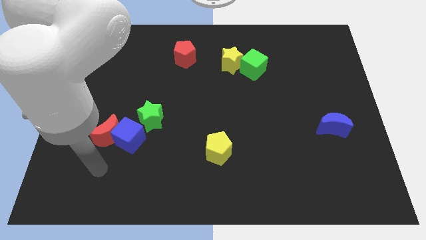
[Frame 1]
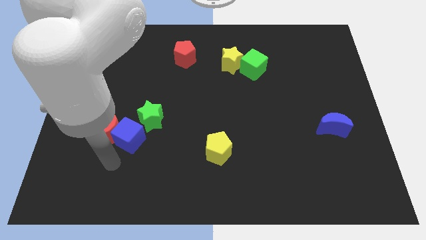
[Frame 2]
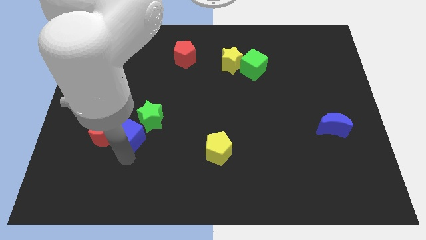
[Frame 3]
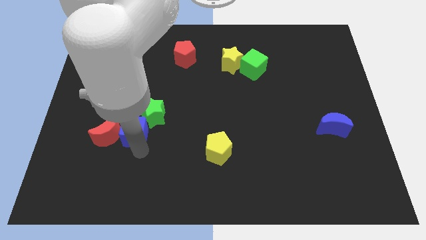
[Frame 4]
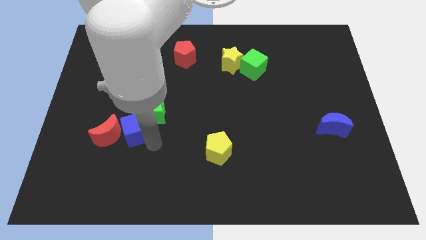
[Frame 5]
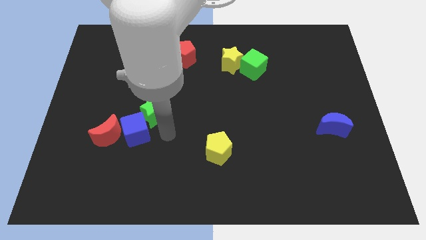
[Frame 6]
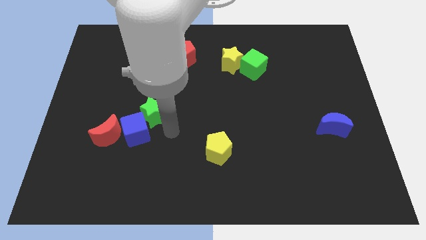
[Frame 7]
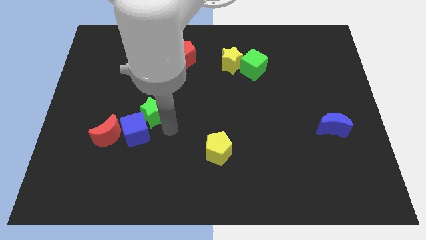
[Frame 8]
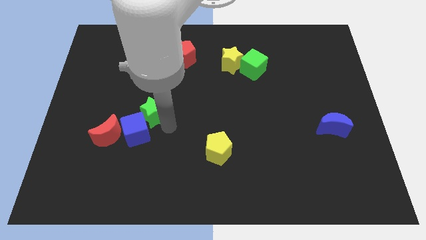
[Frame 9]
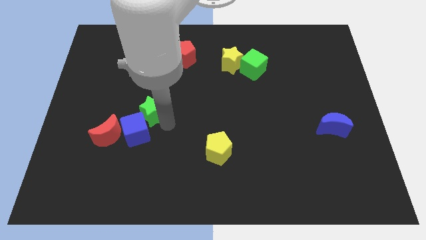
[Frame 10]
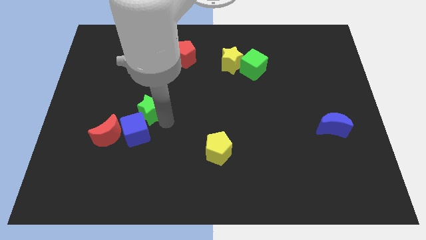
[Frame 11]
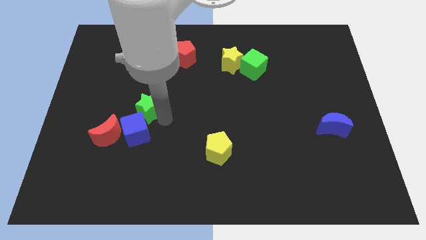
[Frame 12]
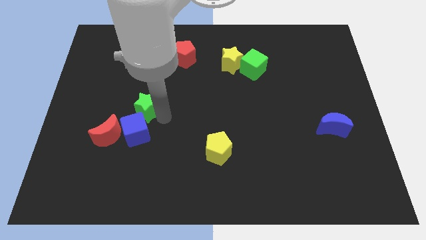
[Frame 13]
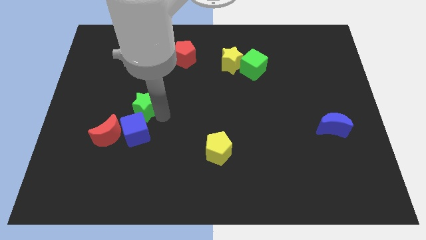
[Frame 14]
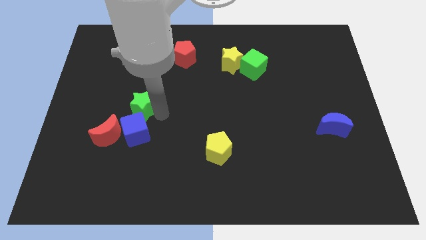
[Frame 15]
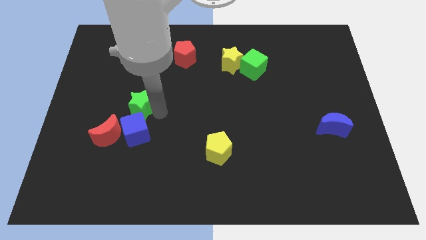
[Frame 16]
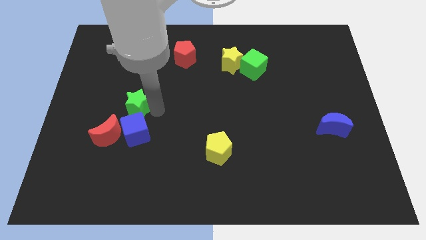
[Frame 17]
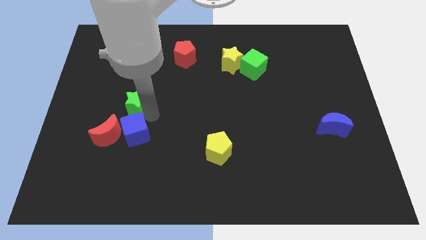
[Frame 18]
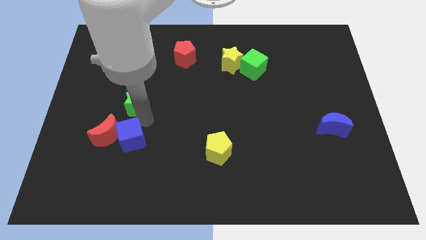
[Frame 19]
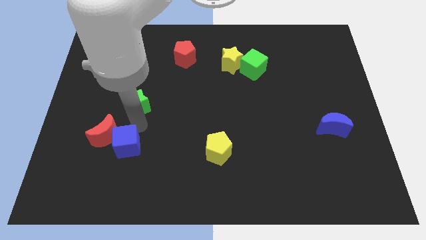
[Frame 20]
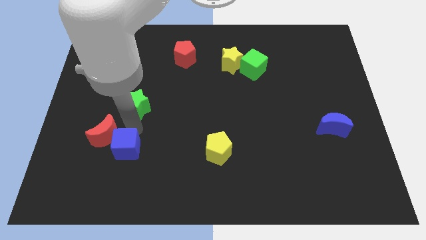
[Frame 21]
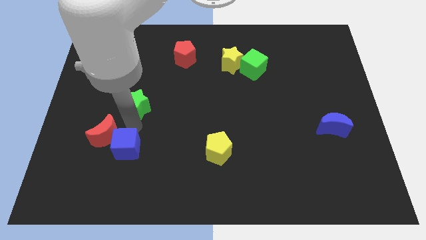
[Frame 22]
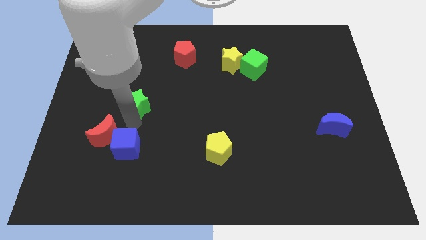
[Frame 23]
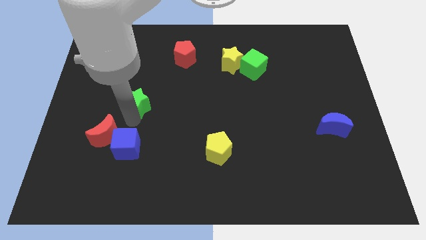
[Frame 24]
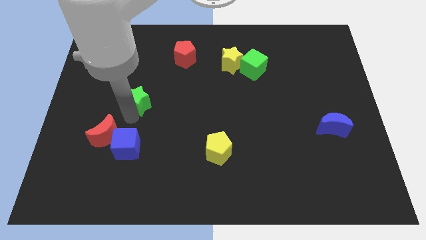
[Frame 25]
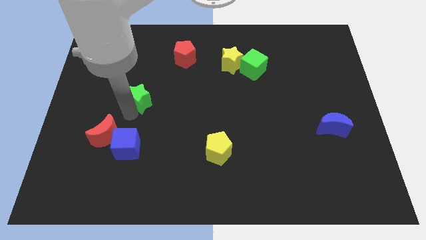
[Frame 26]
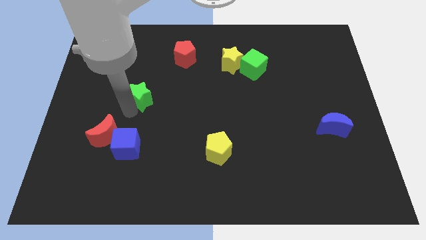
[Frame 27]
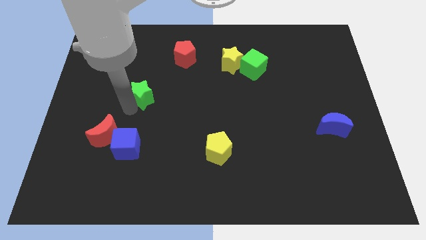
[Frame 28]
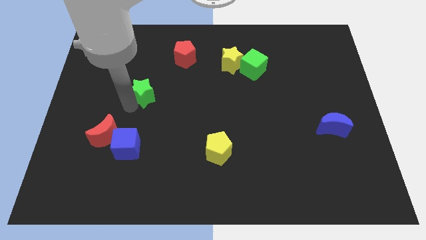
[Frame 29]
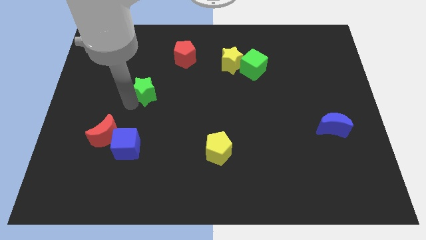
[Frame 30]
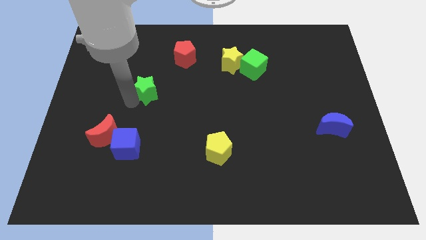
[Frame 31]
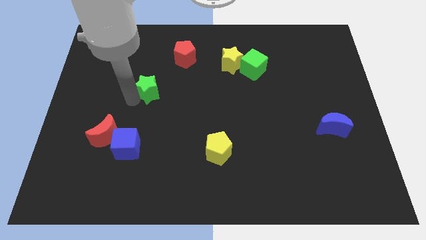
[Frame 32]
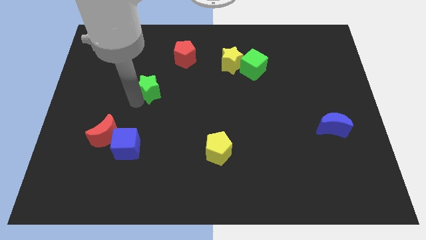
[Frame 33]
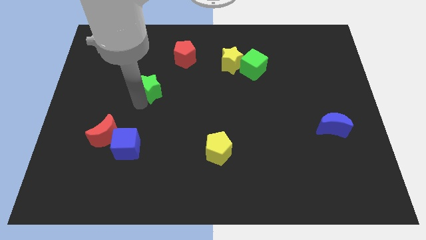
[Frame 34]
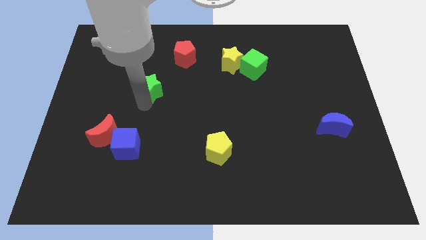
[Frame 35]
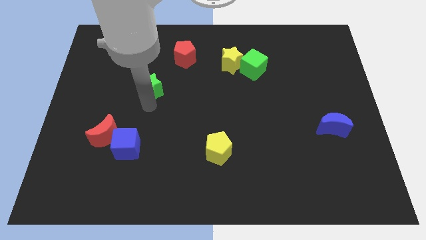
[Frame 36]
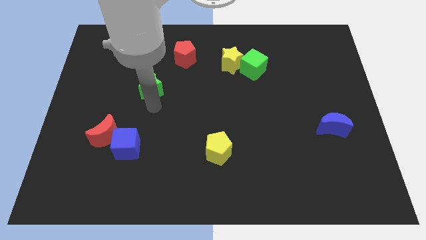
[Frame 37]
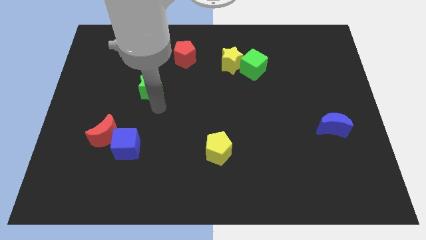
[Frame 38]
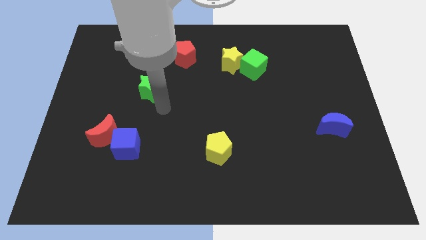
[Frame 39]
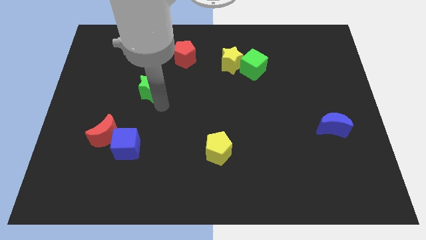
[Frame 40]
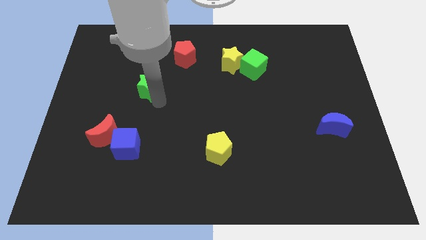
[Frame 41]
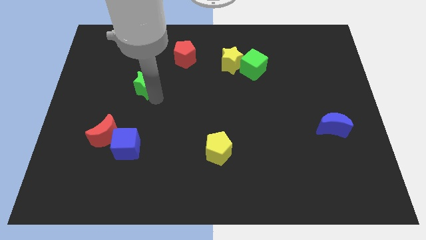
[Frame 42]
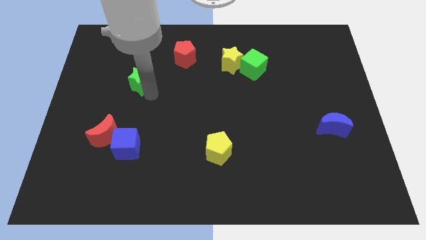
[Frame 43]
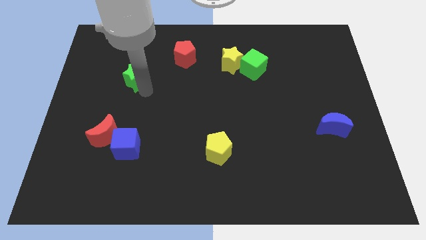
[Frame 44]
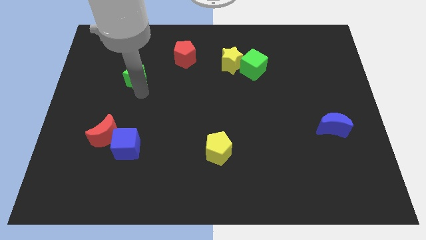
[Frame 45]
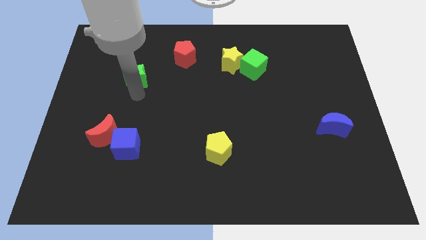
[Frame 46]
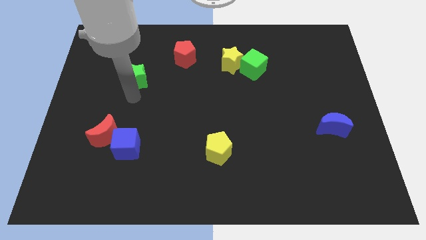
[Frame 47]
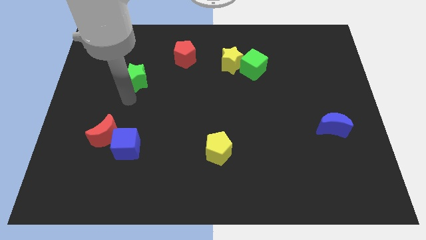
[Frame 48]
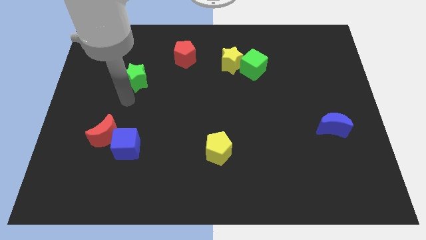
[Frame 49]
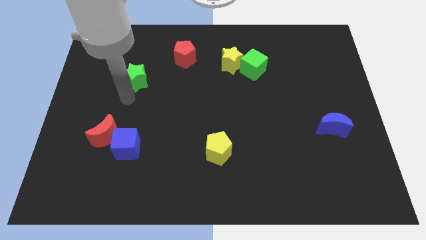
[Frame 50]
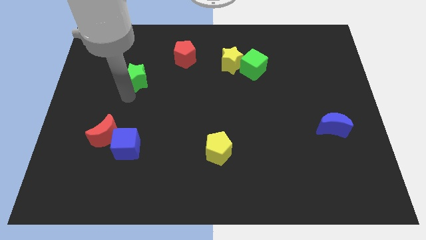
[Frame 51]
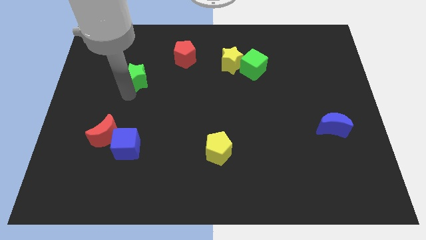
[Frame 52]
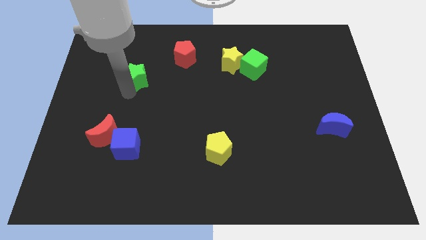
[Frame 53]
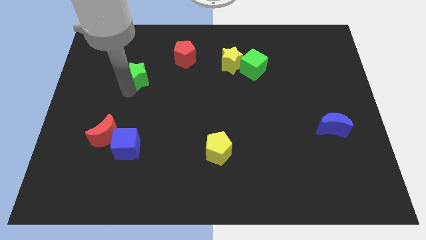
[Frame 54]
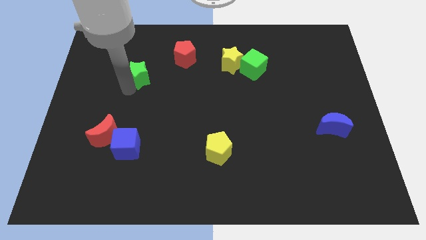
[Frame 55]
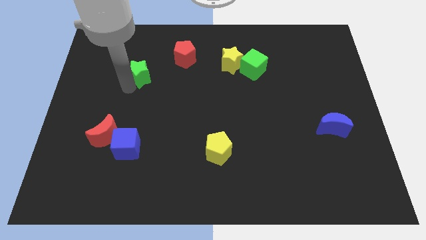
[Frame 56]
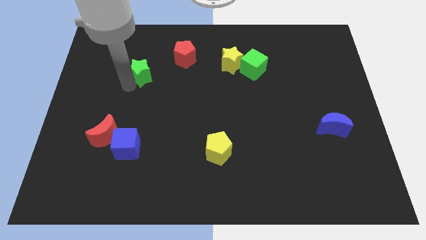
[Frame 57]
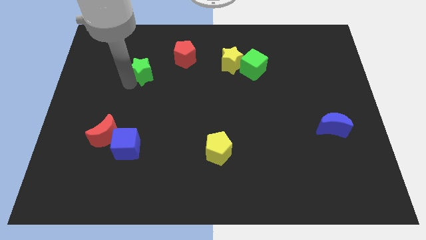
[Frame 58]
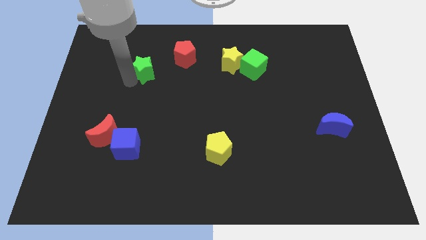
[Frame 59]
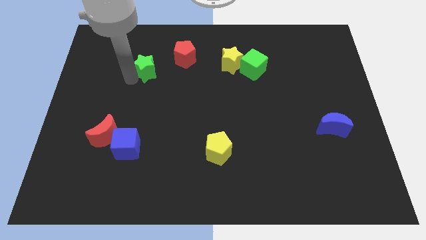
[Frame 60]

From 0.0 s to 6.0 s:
move the green star left of the red pentagon

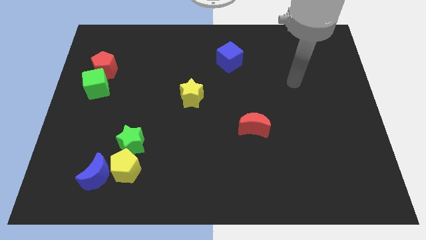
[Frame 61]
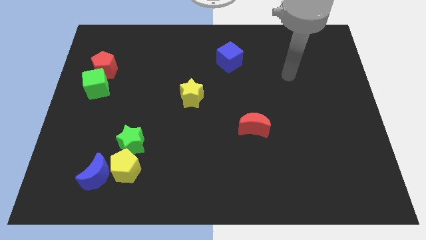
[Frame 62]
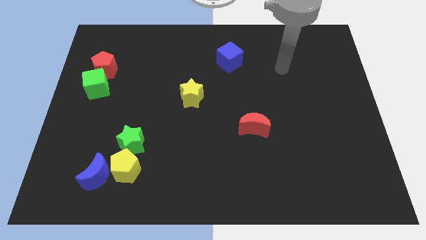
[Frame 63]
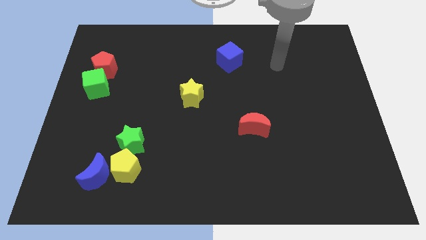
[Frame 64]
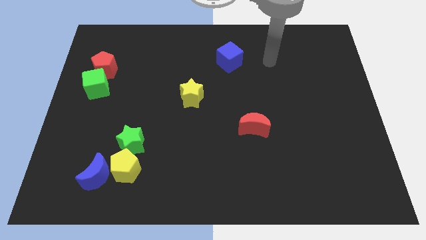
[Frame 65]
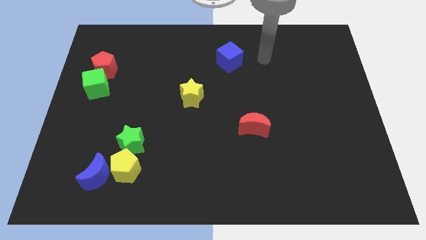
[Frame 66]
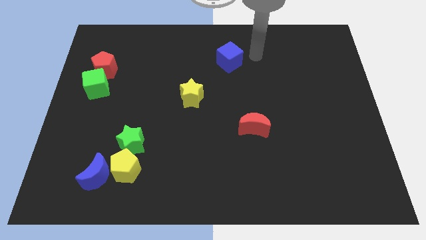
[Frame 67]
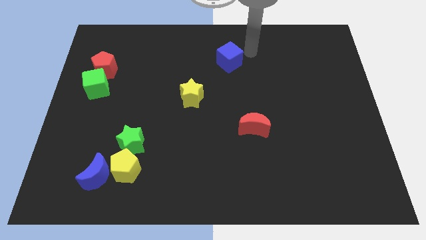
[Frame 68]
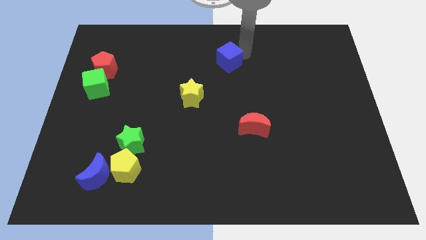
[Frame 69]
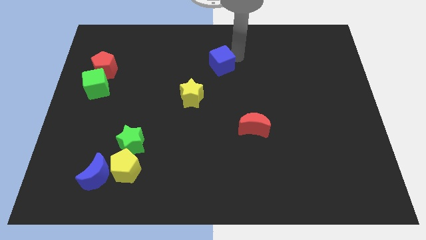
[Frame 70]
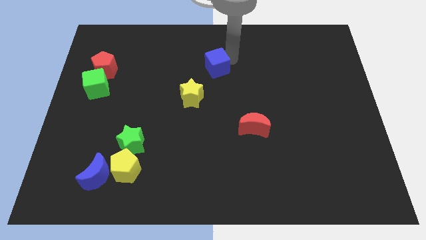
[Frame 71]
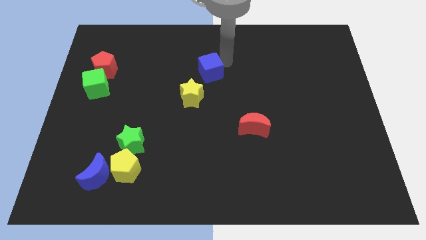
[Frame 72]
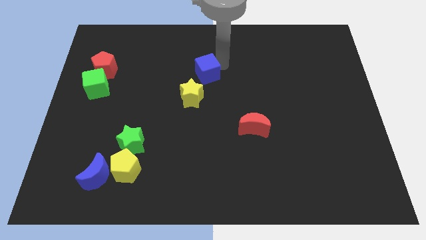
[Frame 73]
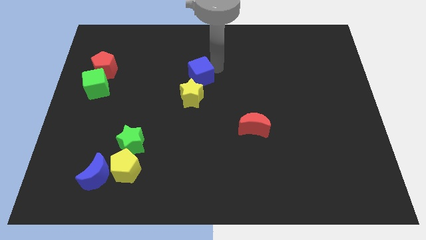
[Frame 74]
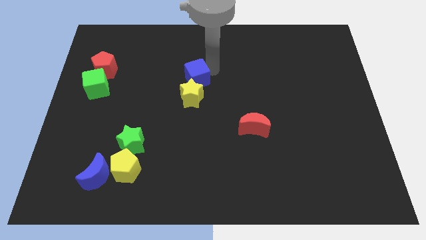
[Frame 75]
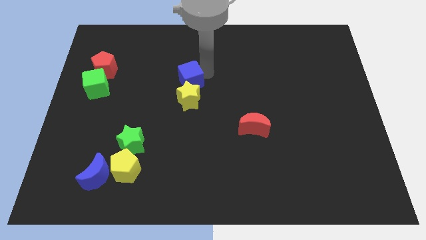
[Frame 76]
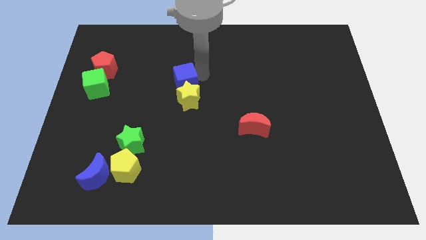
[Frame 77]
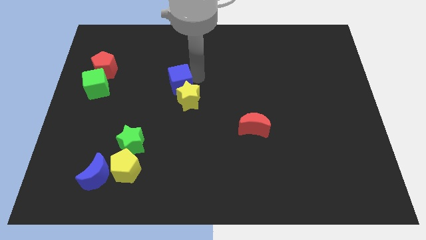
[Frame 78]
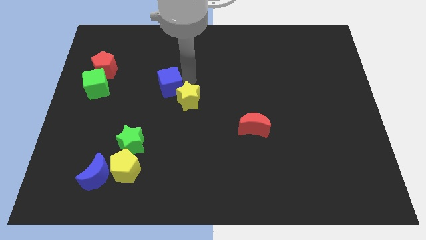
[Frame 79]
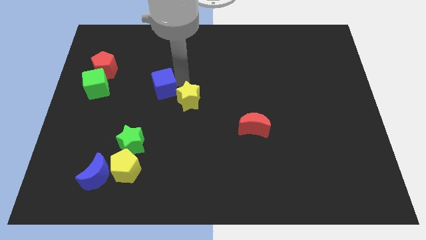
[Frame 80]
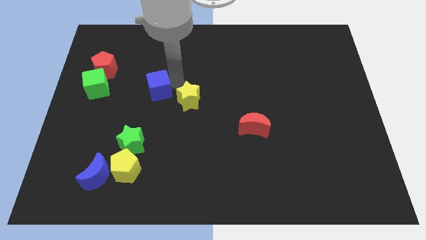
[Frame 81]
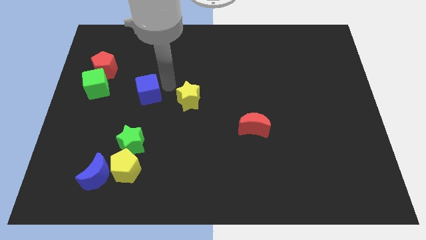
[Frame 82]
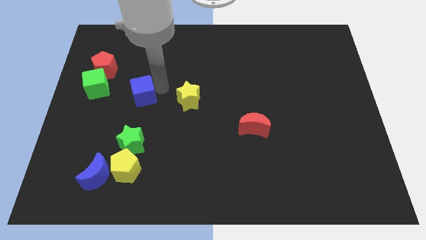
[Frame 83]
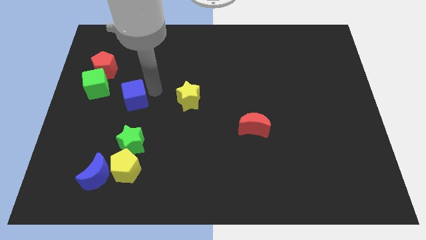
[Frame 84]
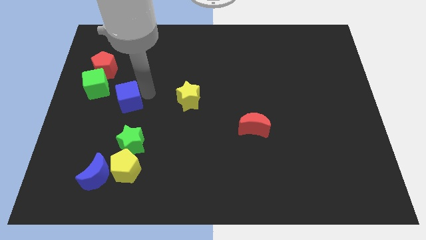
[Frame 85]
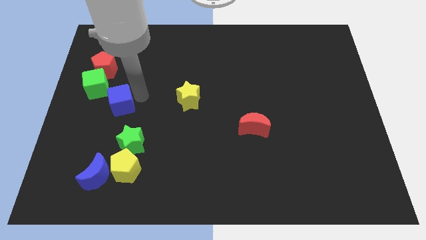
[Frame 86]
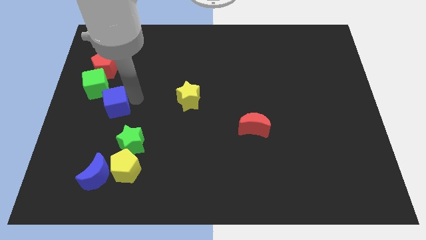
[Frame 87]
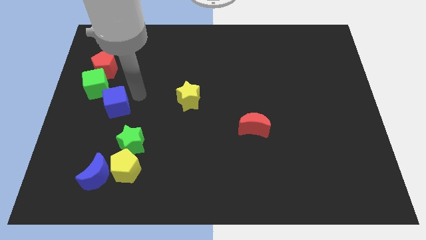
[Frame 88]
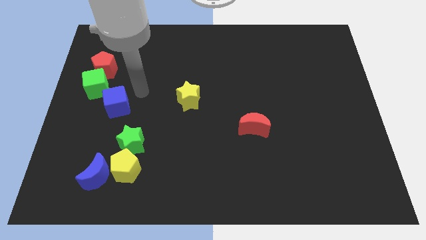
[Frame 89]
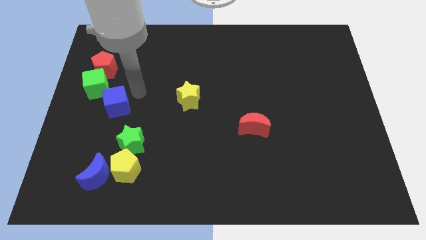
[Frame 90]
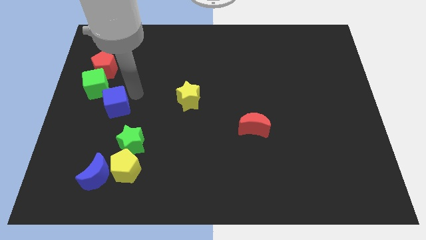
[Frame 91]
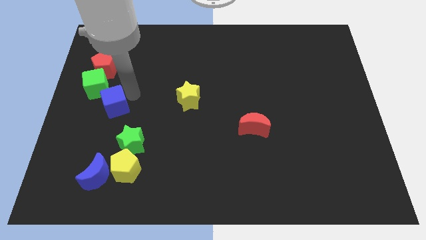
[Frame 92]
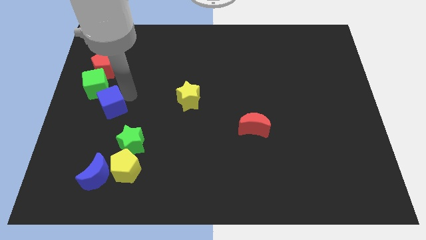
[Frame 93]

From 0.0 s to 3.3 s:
slide the blue cube below the green cube
